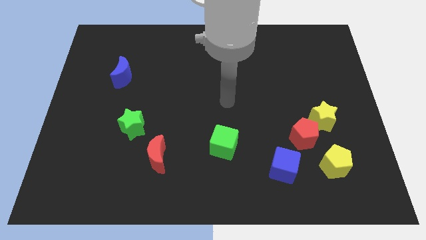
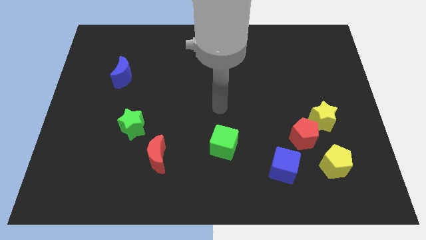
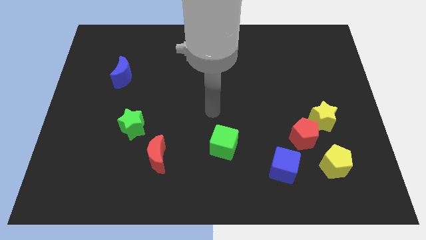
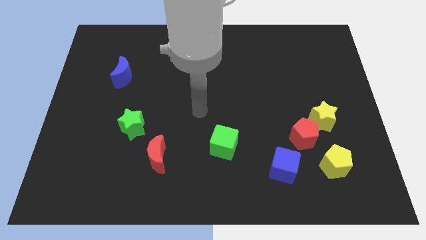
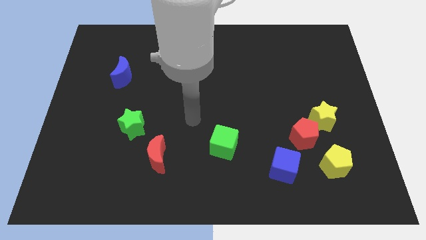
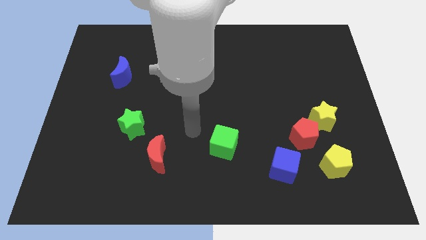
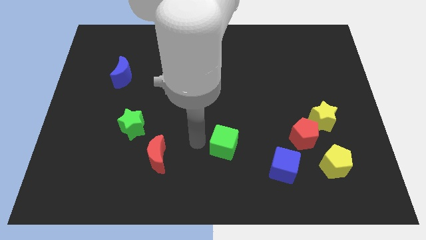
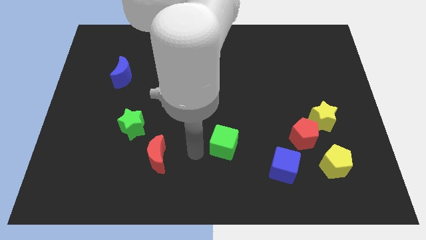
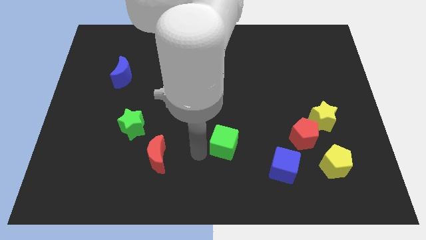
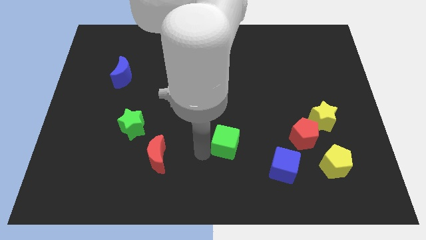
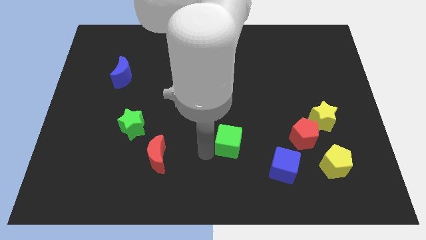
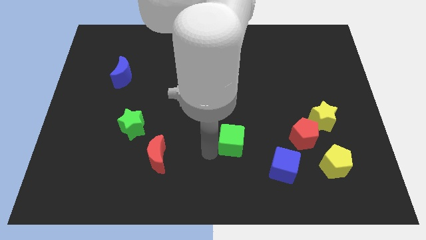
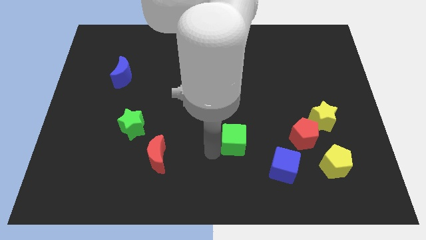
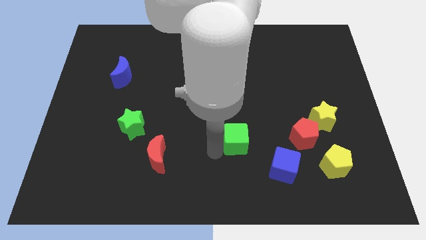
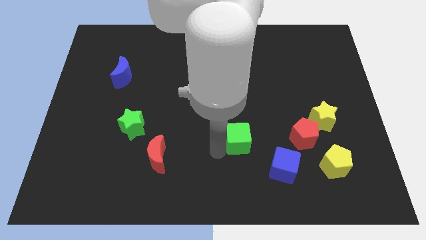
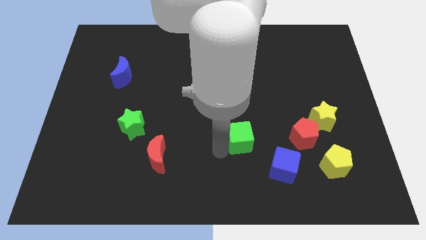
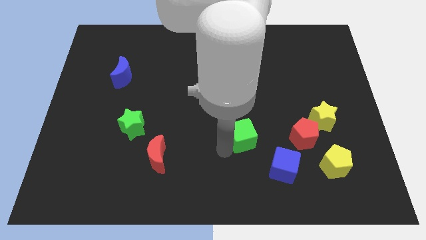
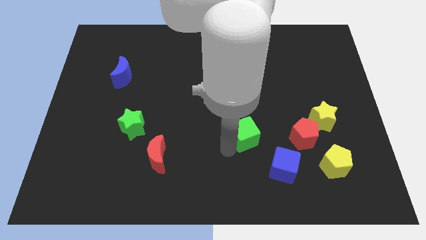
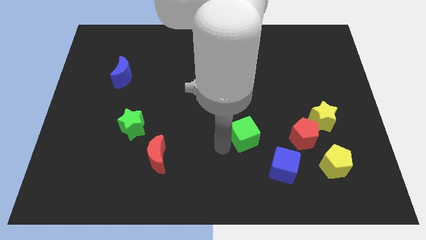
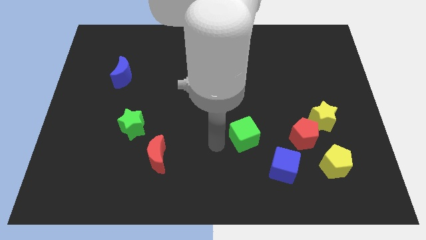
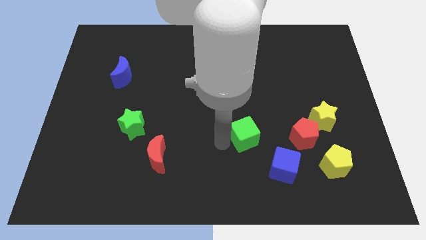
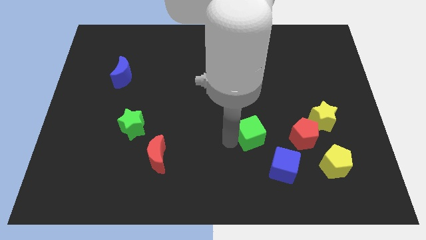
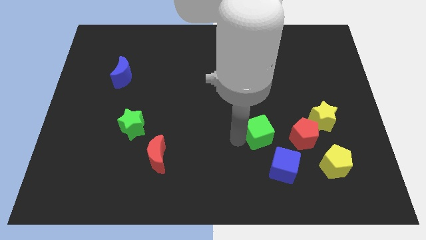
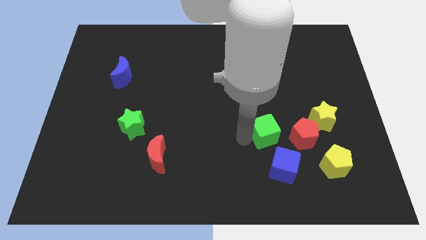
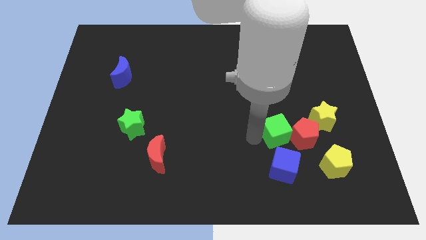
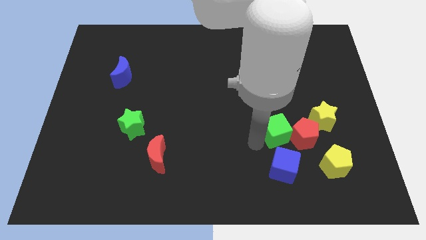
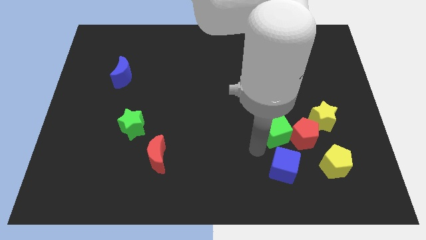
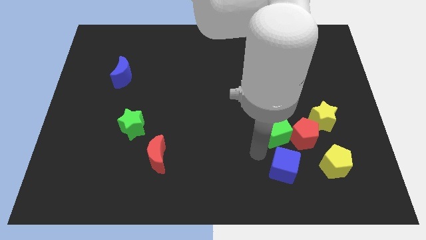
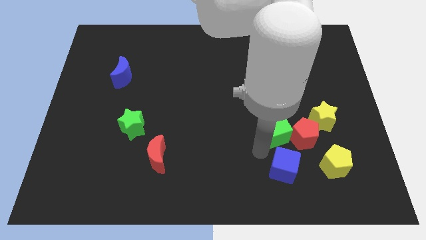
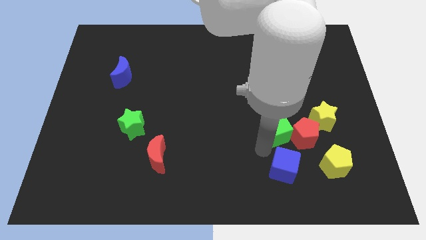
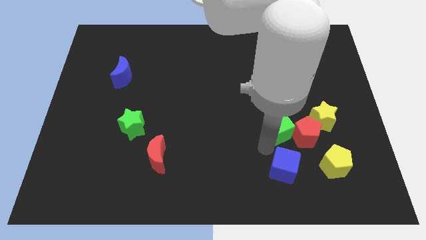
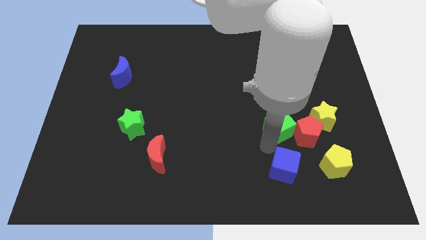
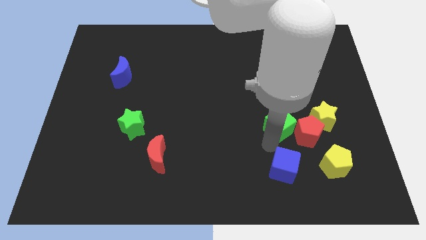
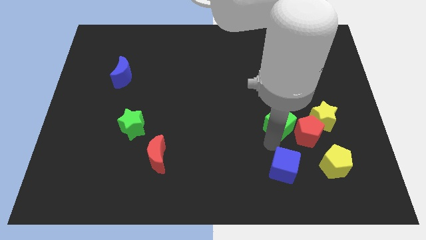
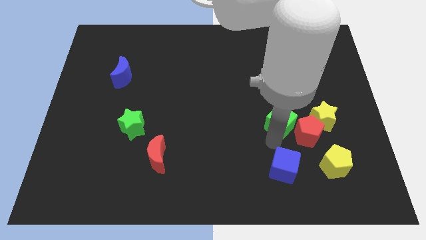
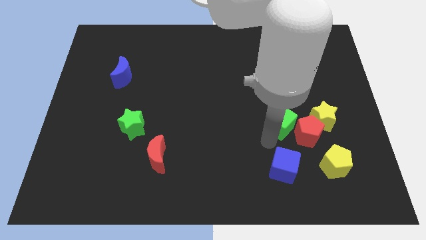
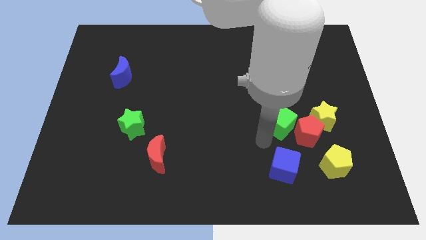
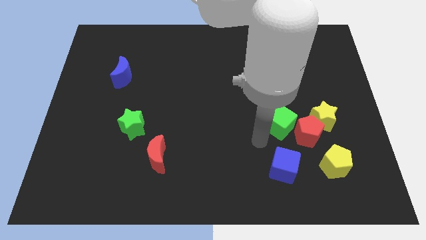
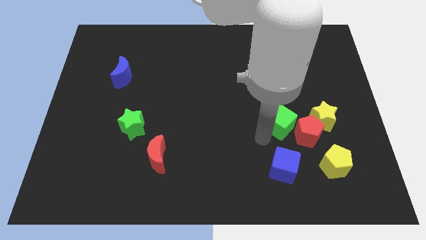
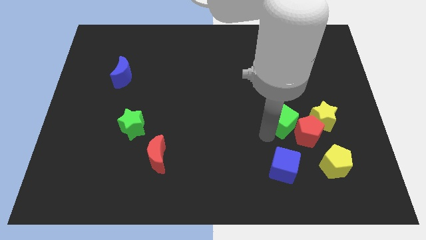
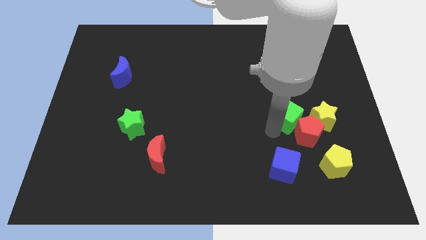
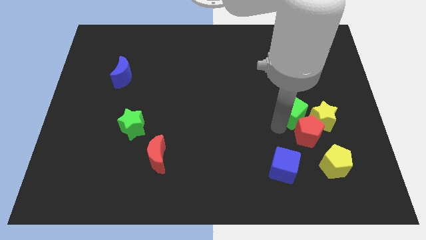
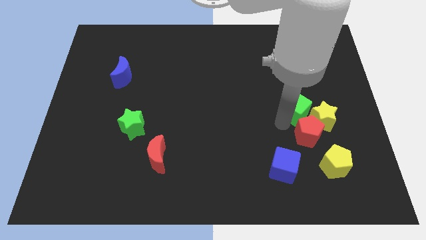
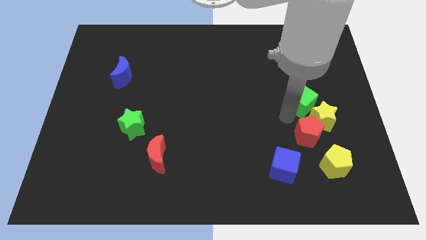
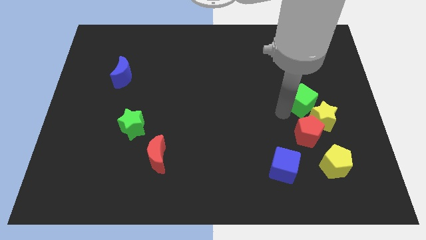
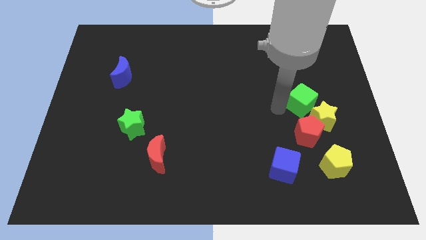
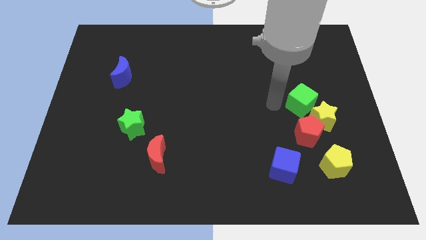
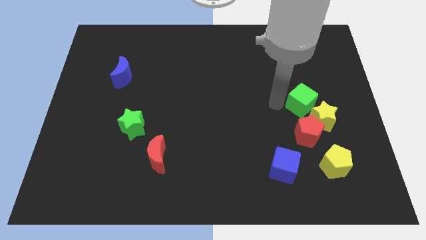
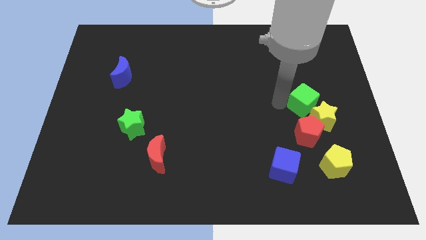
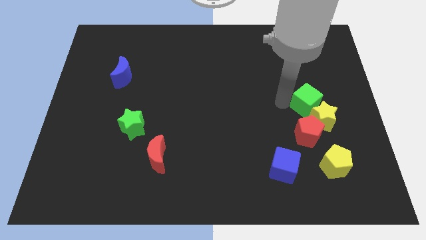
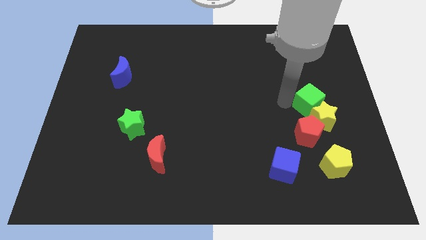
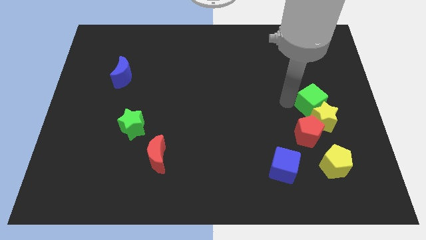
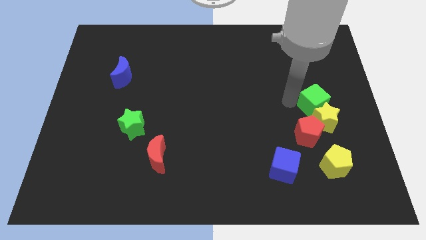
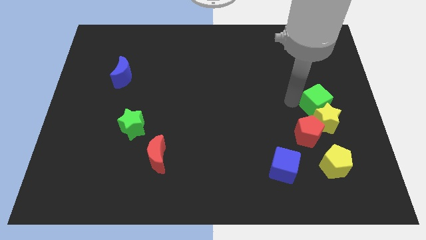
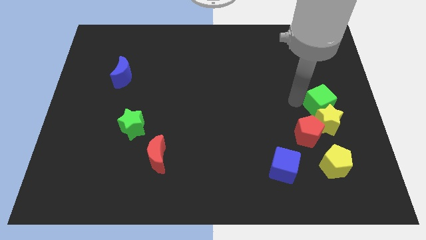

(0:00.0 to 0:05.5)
push the green cube to the center right

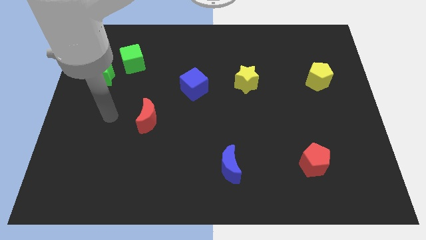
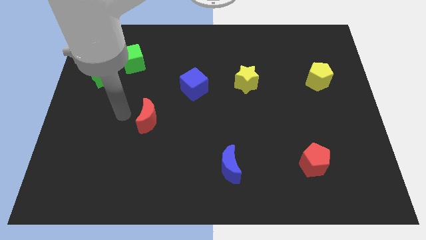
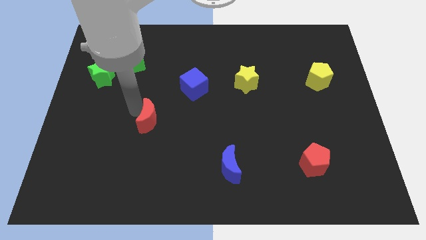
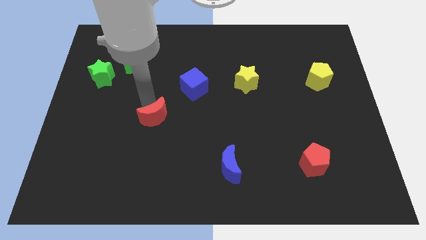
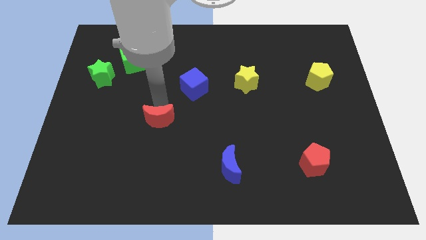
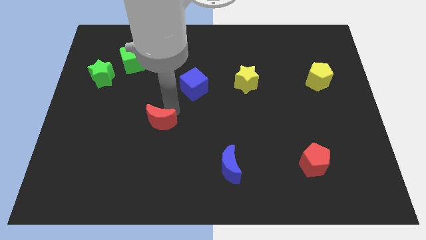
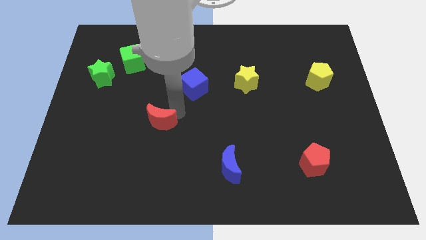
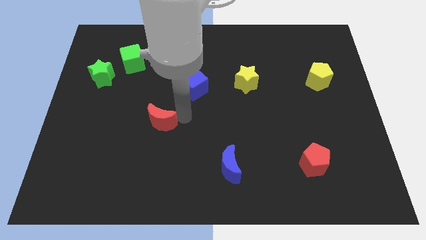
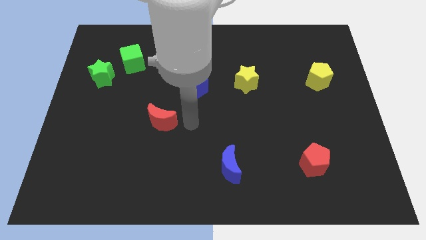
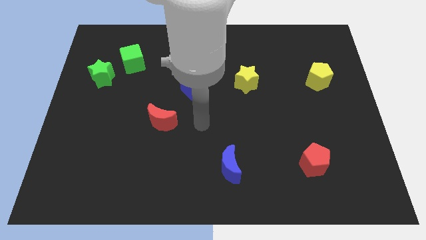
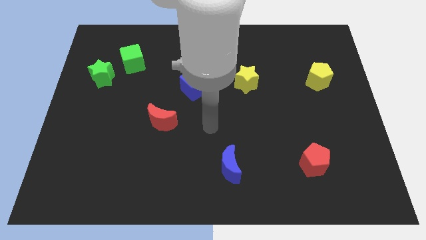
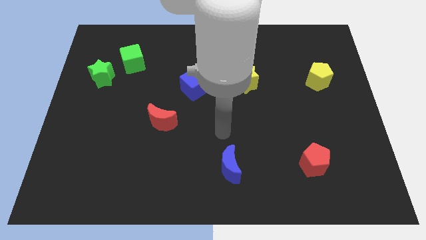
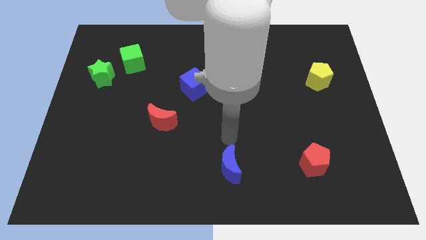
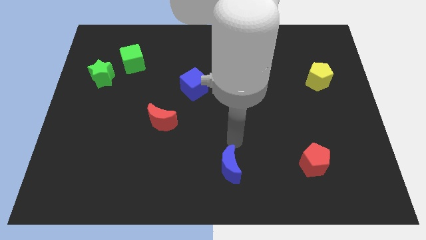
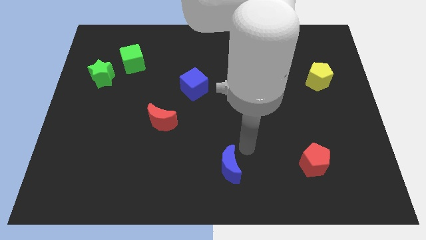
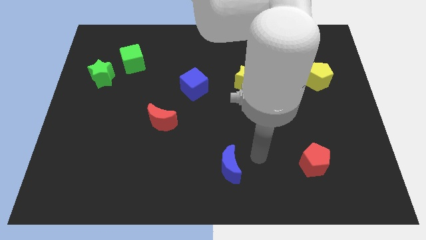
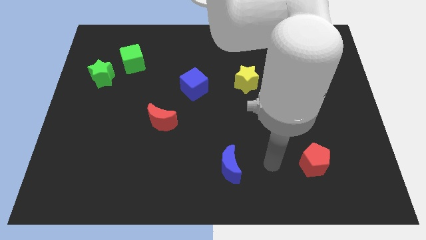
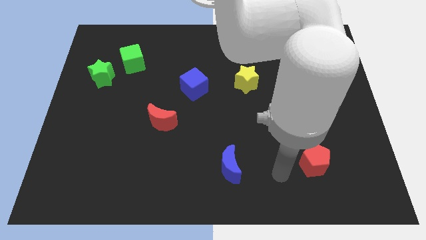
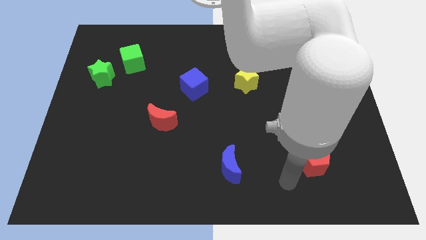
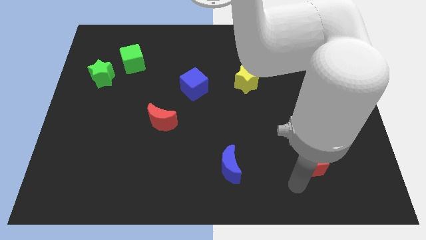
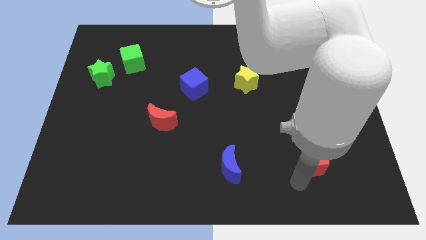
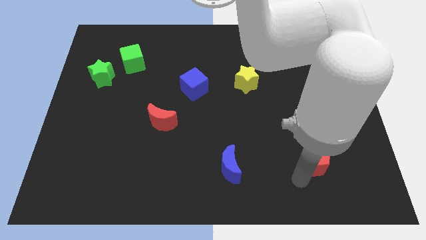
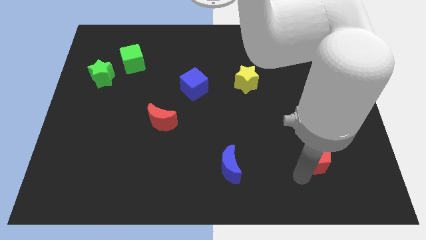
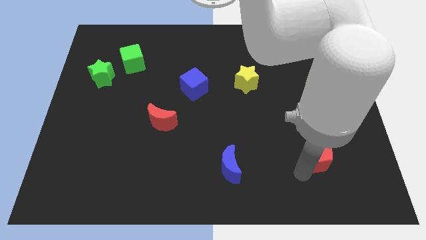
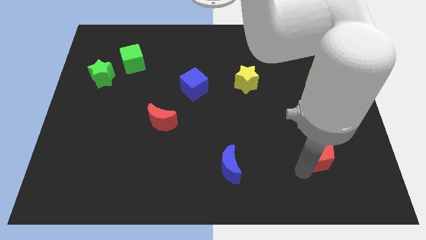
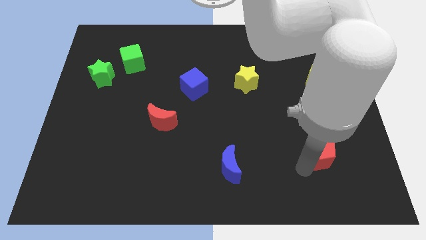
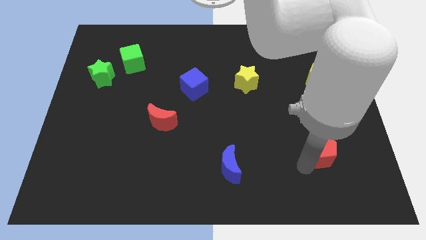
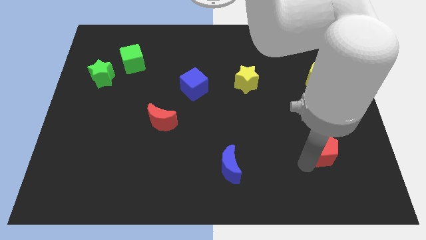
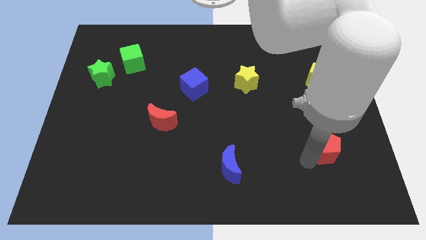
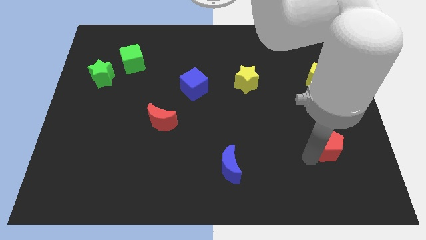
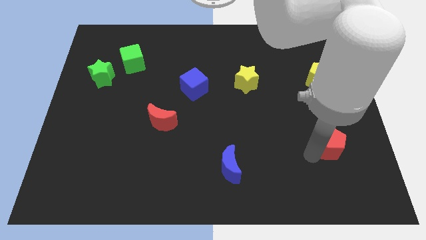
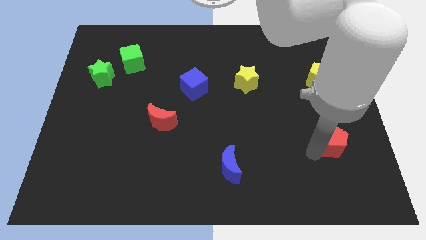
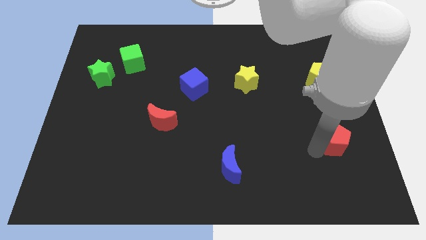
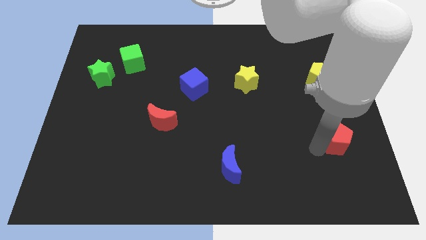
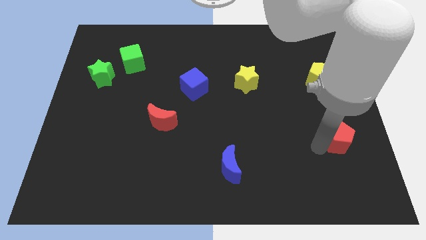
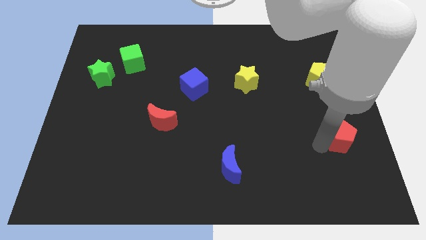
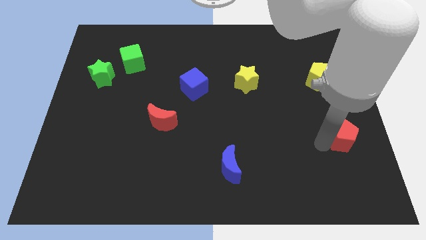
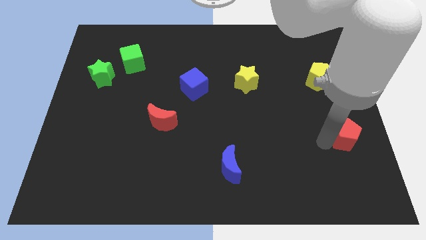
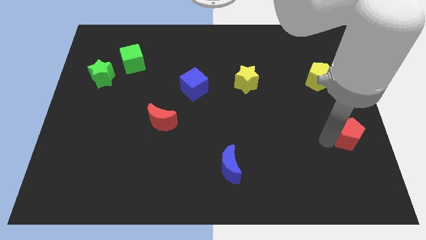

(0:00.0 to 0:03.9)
push the red pentagon to the right side of the board
